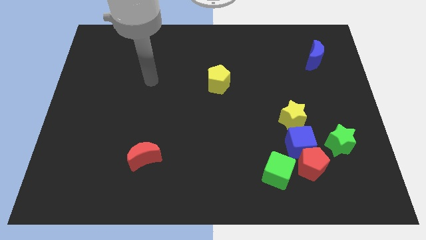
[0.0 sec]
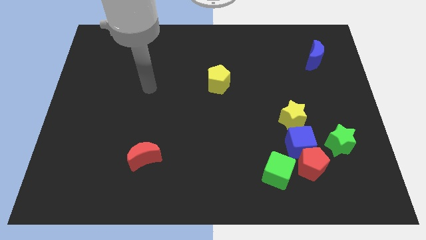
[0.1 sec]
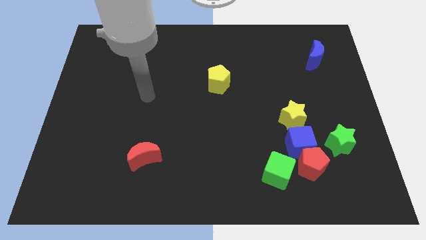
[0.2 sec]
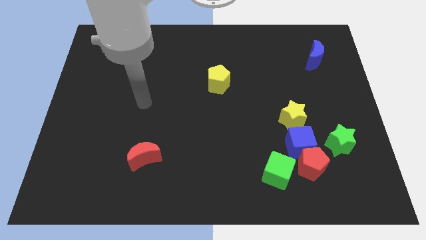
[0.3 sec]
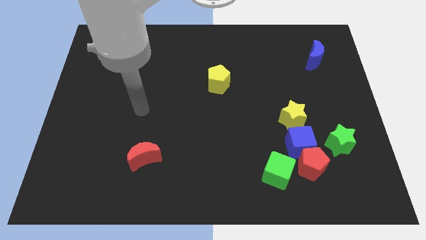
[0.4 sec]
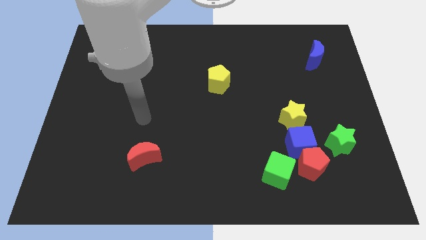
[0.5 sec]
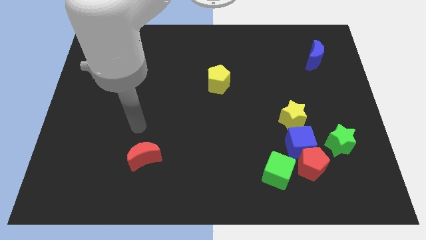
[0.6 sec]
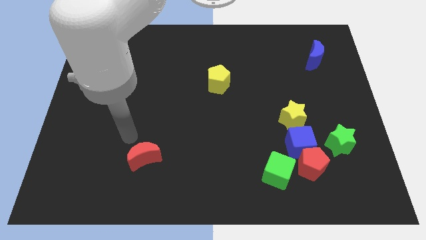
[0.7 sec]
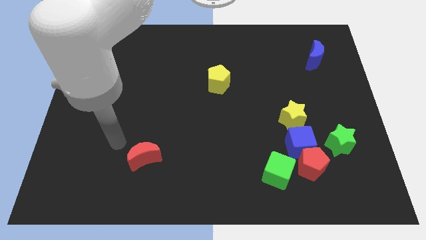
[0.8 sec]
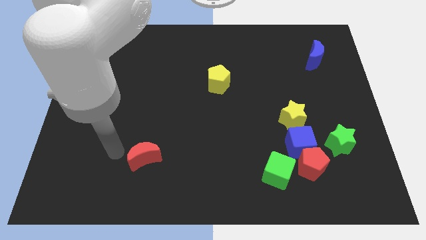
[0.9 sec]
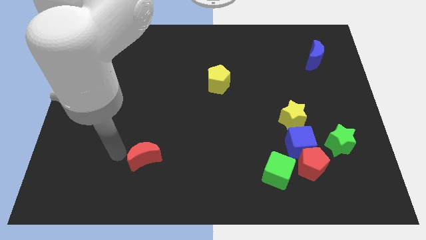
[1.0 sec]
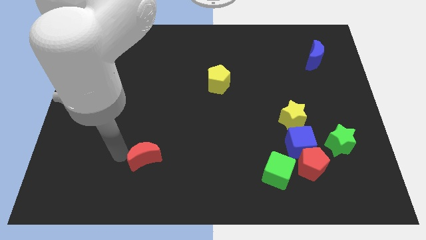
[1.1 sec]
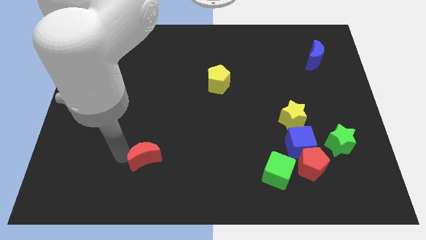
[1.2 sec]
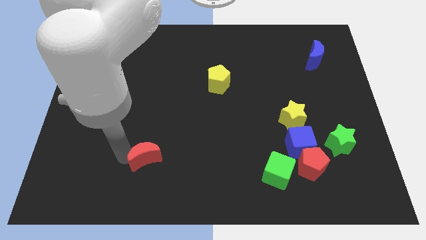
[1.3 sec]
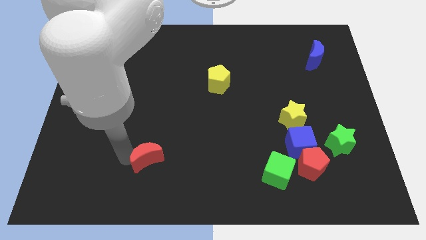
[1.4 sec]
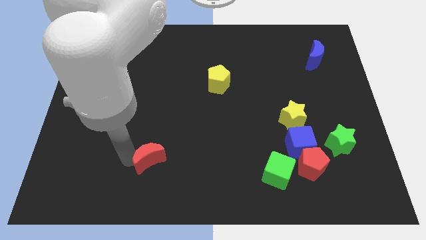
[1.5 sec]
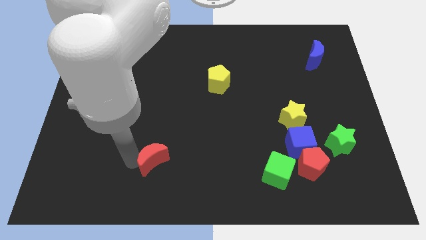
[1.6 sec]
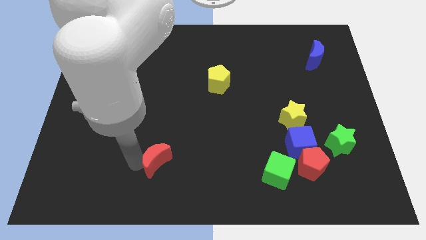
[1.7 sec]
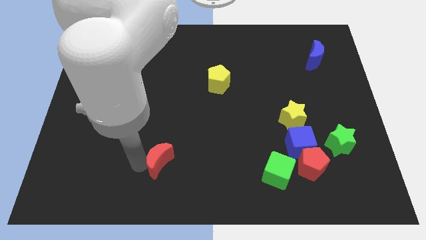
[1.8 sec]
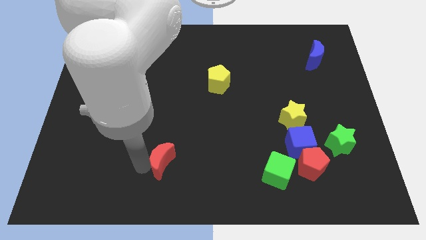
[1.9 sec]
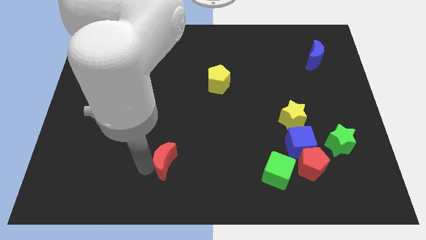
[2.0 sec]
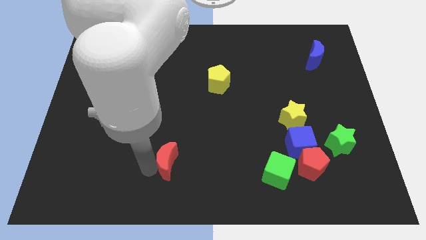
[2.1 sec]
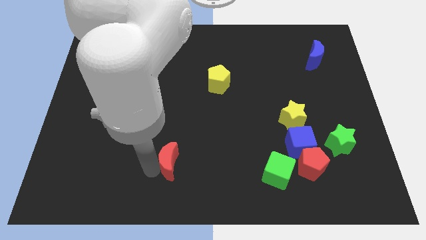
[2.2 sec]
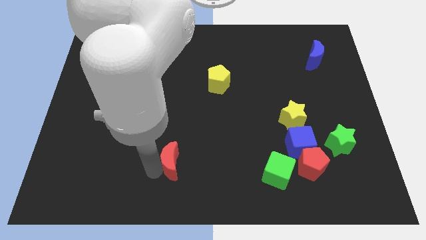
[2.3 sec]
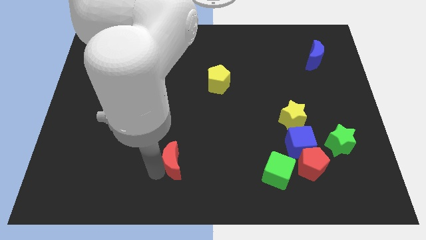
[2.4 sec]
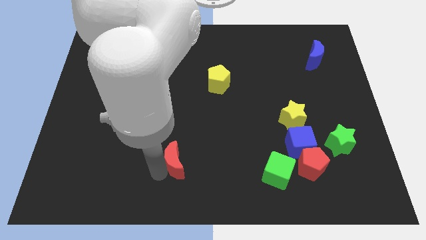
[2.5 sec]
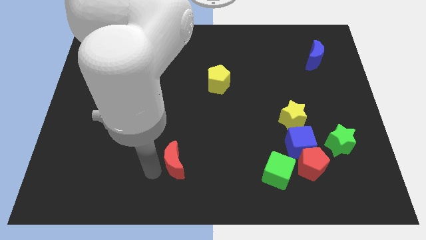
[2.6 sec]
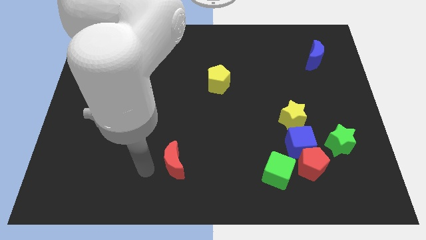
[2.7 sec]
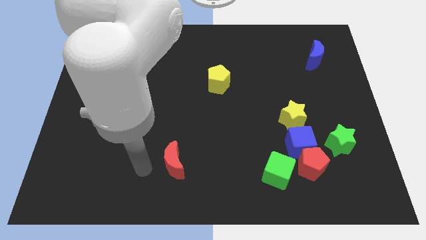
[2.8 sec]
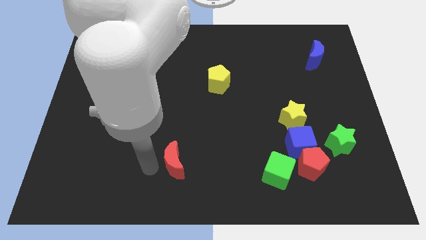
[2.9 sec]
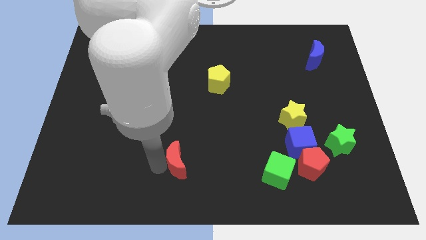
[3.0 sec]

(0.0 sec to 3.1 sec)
slide the red moon to the right a little

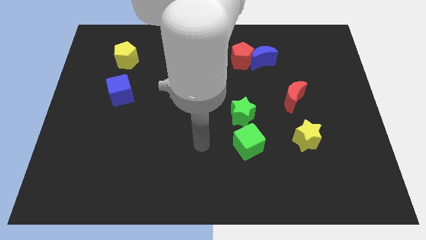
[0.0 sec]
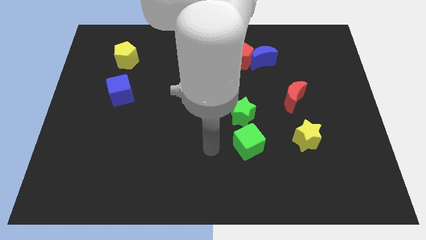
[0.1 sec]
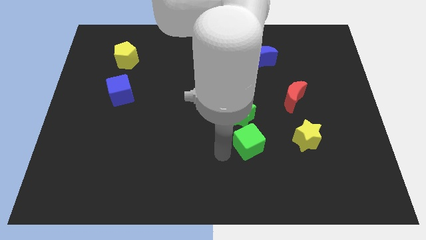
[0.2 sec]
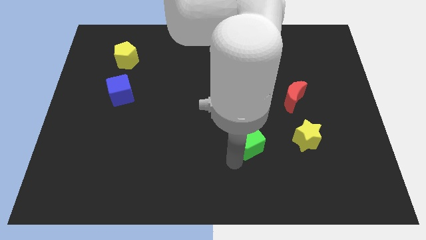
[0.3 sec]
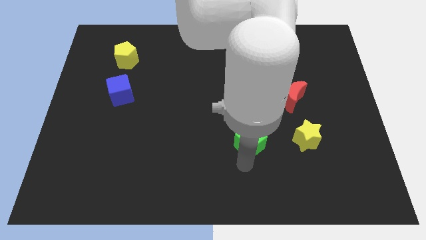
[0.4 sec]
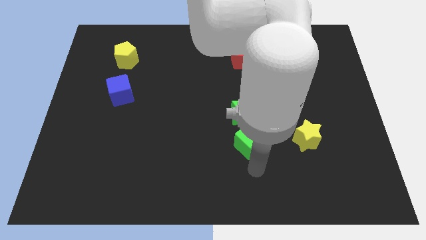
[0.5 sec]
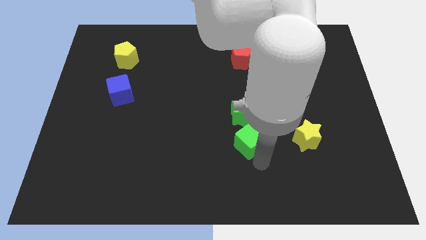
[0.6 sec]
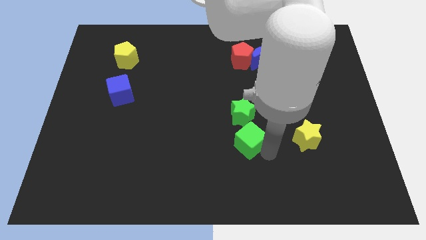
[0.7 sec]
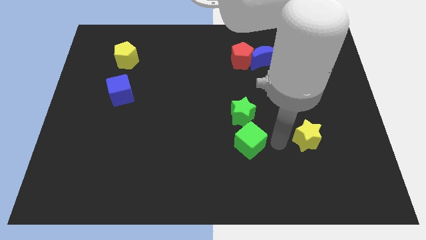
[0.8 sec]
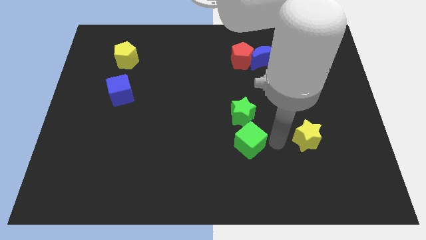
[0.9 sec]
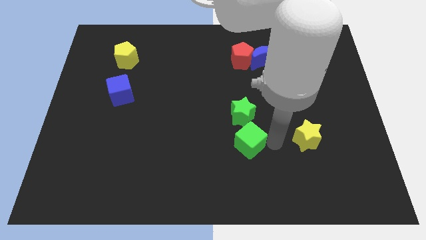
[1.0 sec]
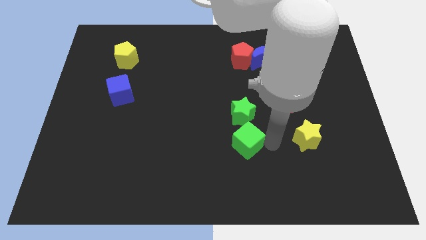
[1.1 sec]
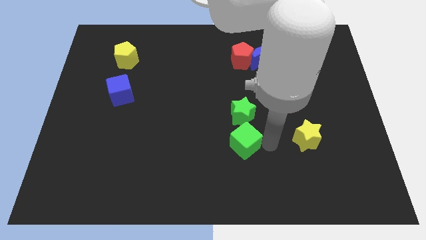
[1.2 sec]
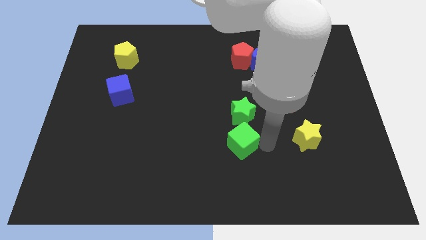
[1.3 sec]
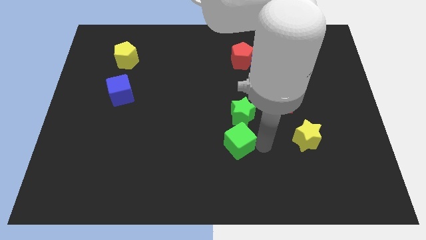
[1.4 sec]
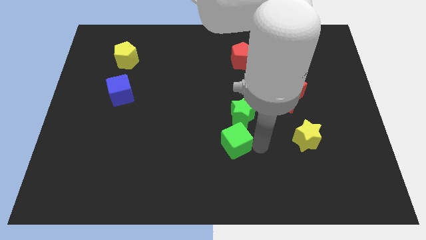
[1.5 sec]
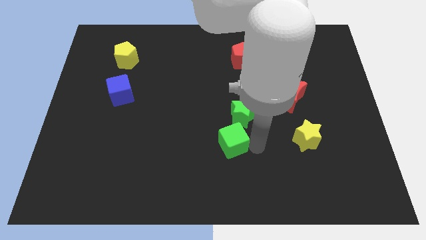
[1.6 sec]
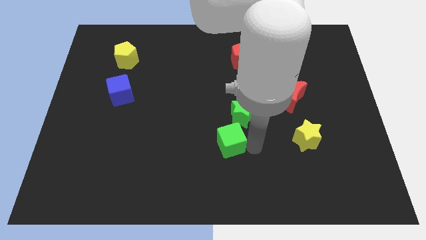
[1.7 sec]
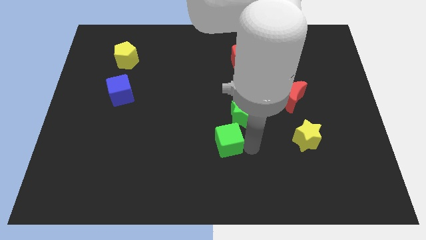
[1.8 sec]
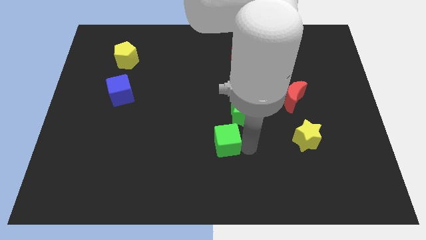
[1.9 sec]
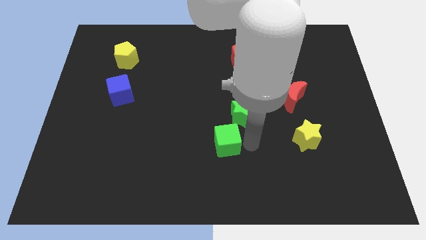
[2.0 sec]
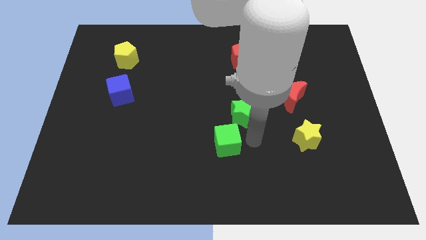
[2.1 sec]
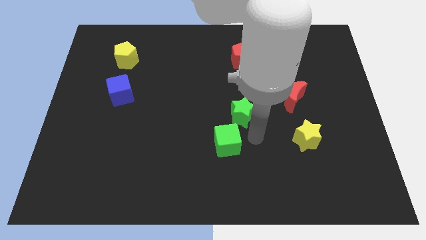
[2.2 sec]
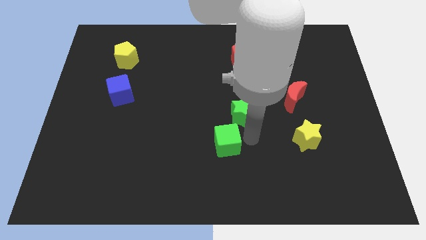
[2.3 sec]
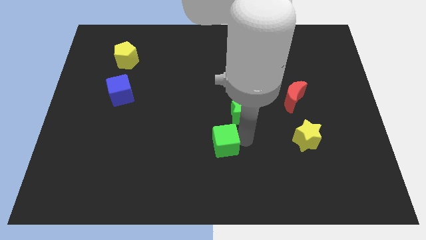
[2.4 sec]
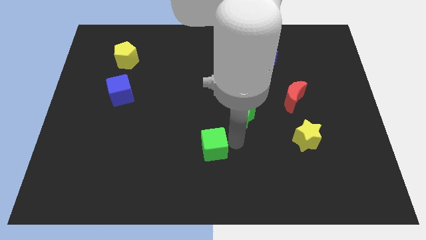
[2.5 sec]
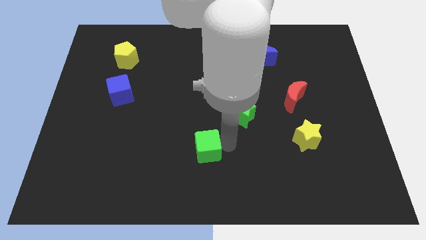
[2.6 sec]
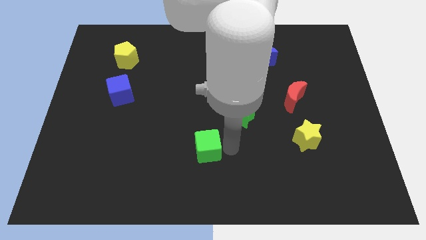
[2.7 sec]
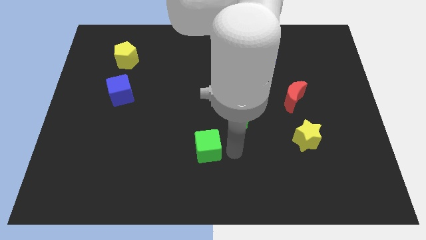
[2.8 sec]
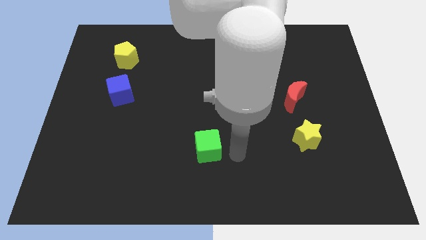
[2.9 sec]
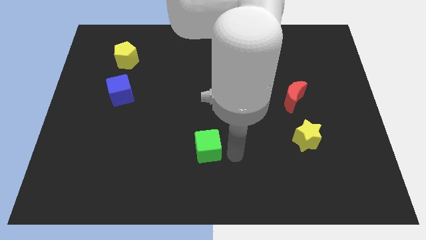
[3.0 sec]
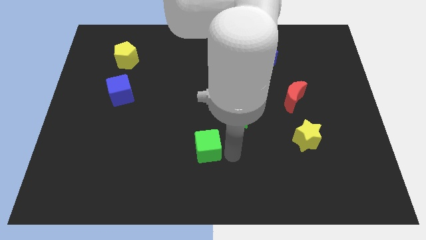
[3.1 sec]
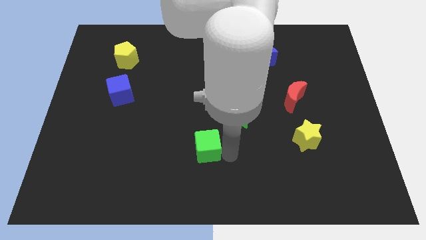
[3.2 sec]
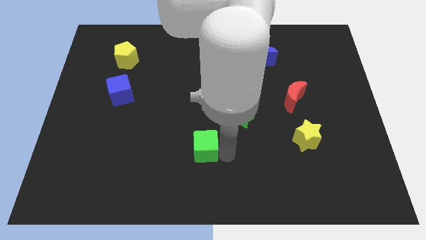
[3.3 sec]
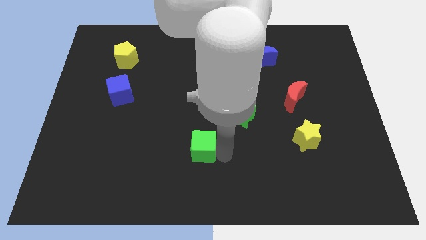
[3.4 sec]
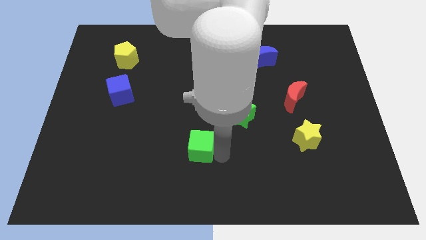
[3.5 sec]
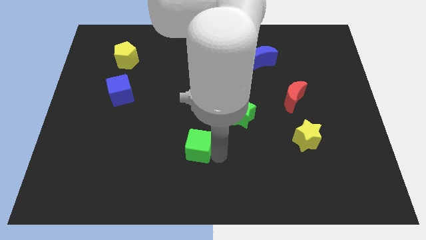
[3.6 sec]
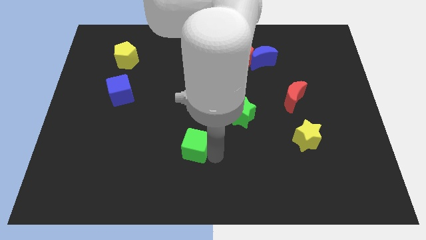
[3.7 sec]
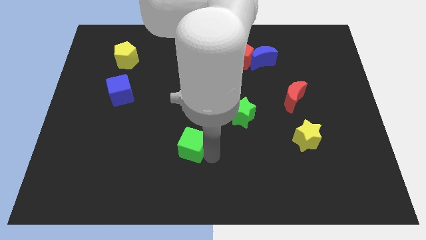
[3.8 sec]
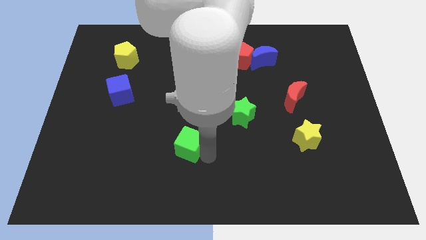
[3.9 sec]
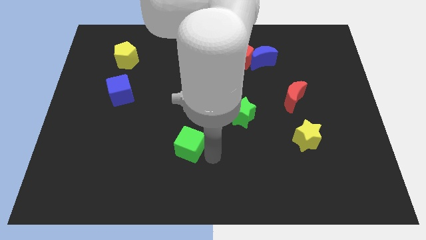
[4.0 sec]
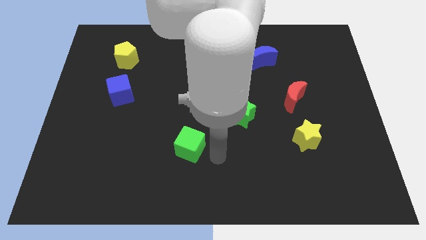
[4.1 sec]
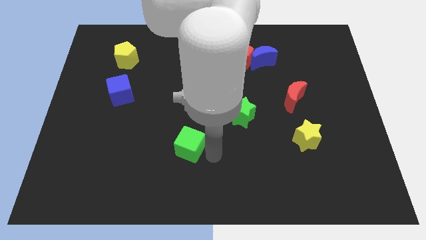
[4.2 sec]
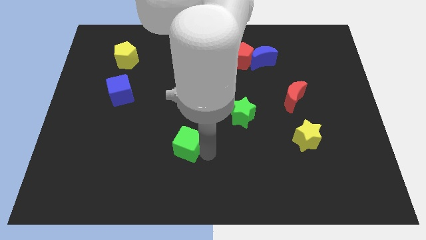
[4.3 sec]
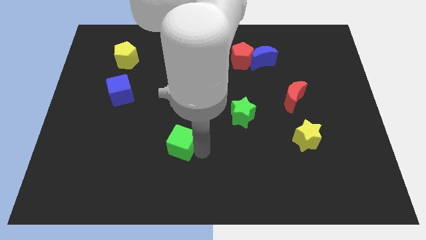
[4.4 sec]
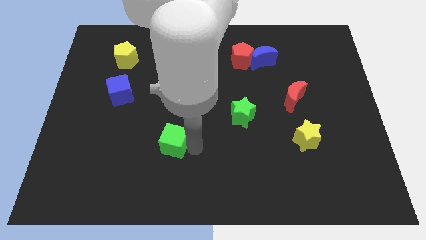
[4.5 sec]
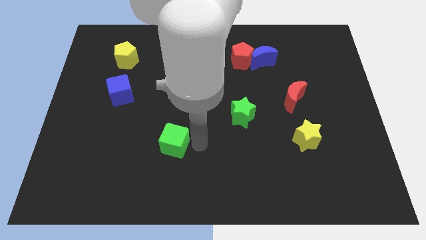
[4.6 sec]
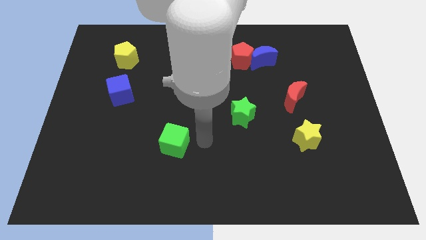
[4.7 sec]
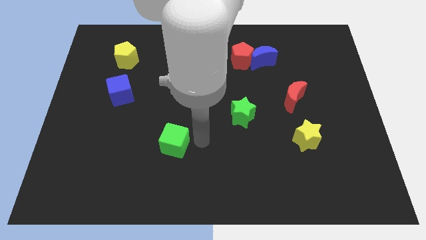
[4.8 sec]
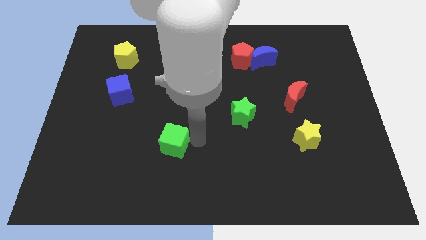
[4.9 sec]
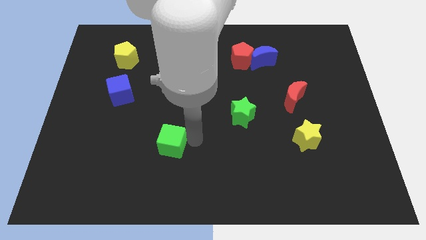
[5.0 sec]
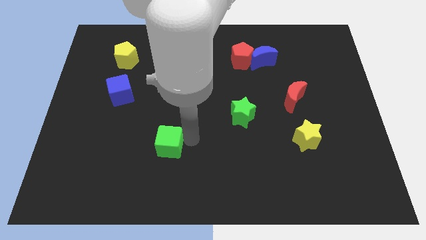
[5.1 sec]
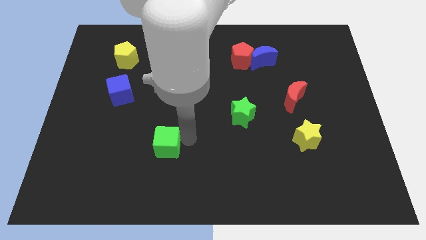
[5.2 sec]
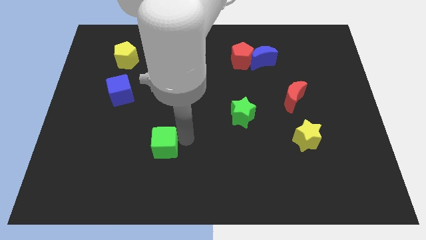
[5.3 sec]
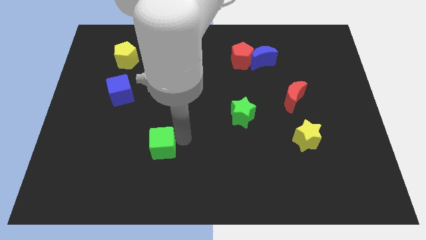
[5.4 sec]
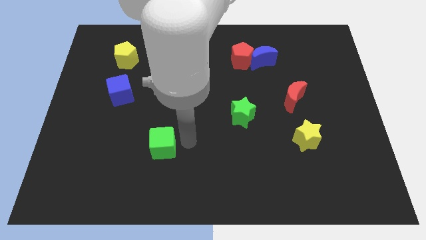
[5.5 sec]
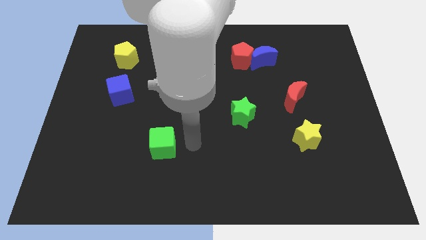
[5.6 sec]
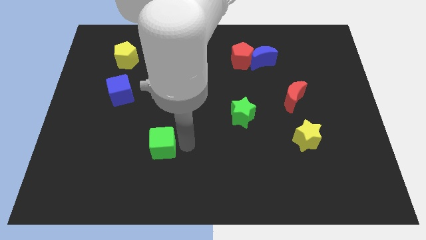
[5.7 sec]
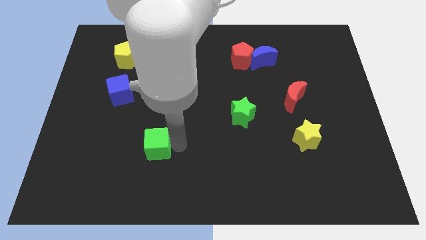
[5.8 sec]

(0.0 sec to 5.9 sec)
push the green cube to the left
